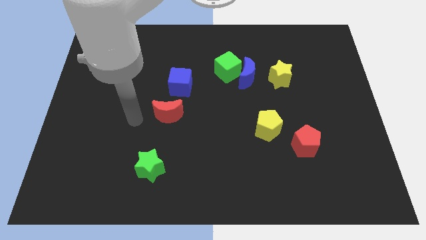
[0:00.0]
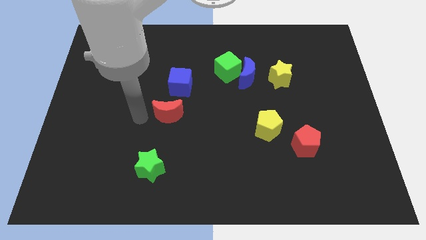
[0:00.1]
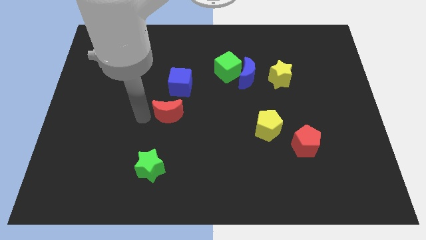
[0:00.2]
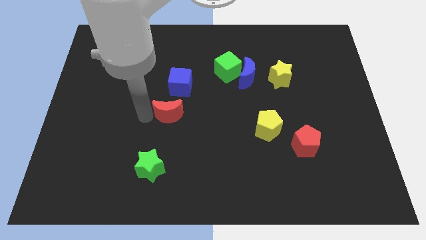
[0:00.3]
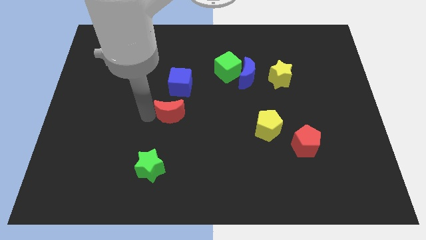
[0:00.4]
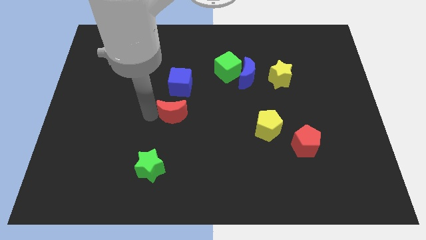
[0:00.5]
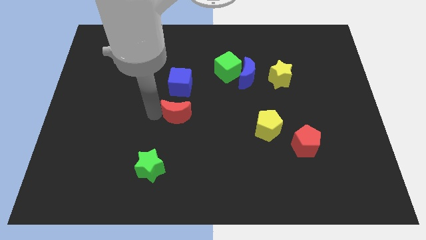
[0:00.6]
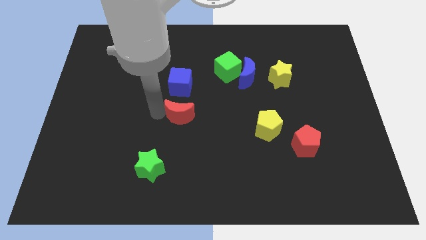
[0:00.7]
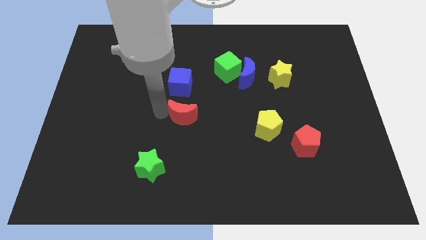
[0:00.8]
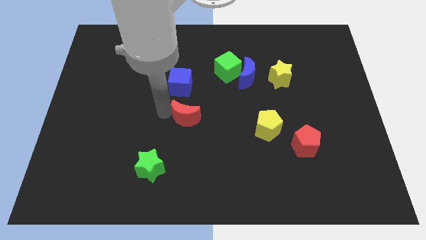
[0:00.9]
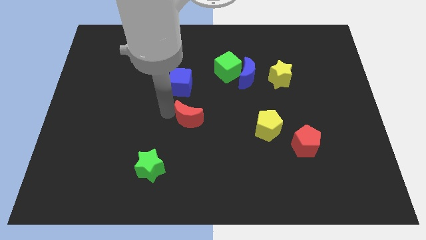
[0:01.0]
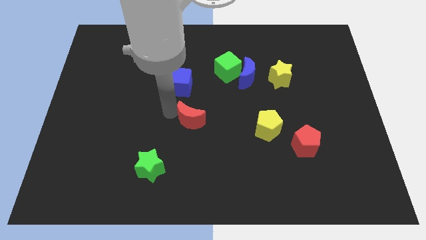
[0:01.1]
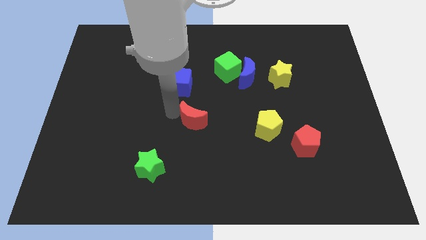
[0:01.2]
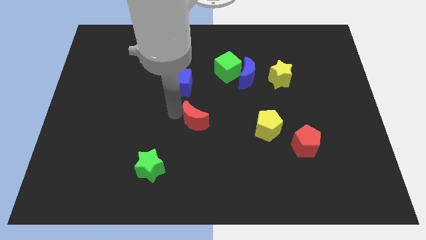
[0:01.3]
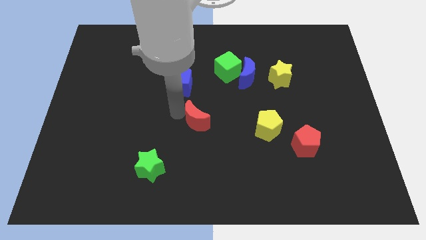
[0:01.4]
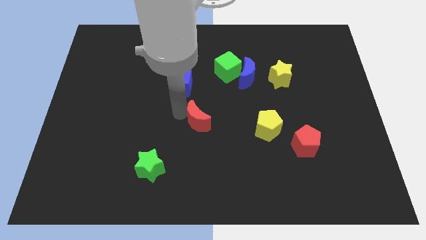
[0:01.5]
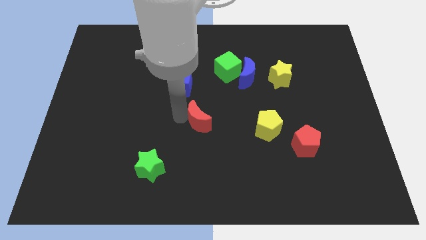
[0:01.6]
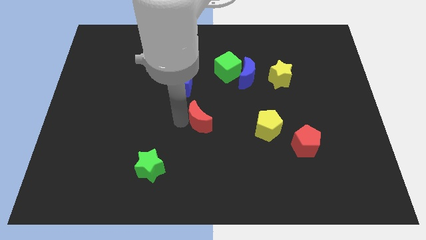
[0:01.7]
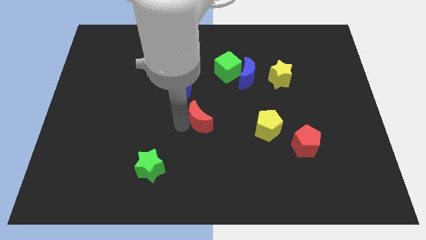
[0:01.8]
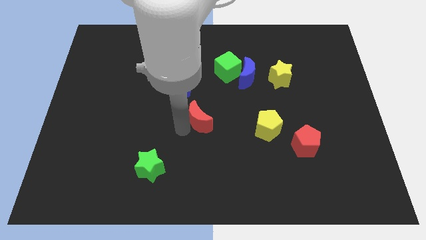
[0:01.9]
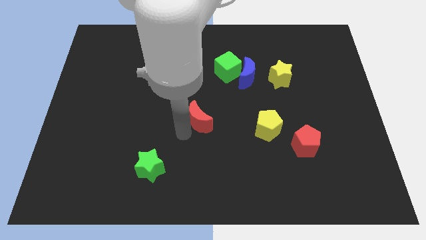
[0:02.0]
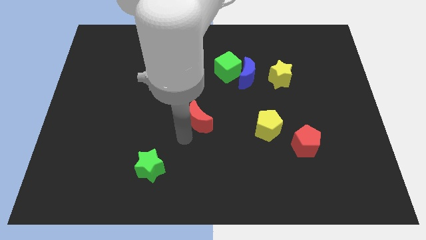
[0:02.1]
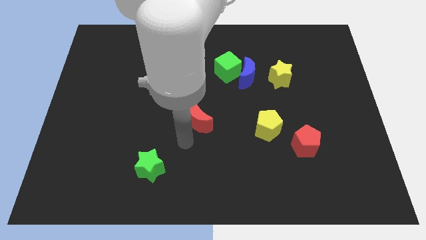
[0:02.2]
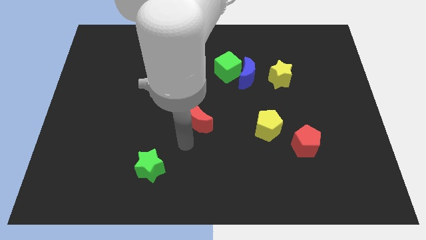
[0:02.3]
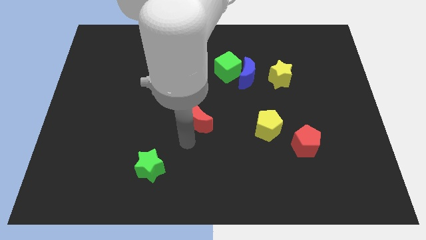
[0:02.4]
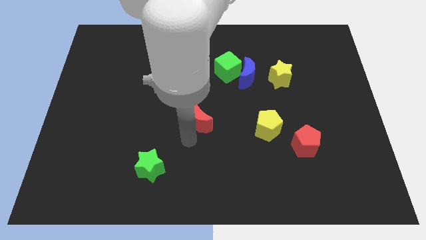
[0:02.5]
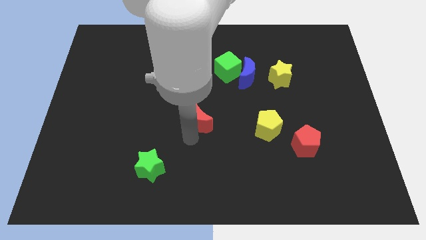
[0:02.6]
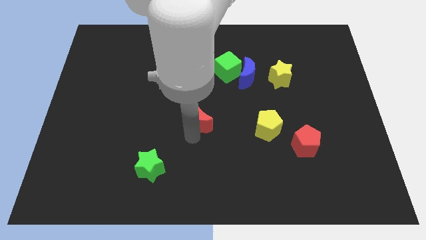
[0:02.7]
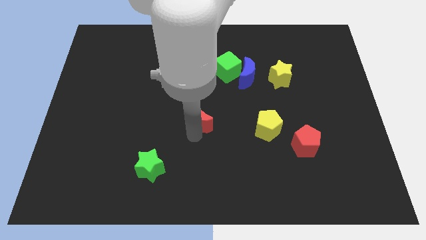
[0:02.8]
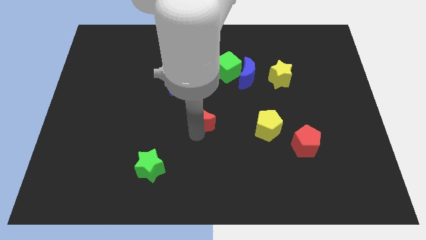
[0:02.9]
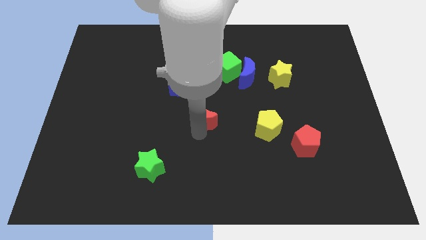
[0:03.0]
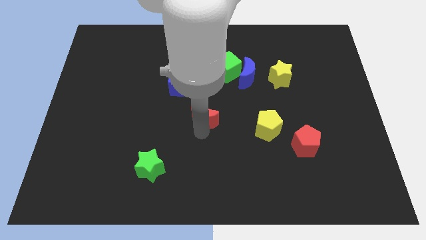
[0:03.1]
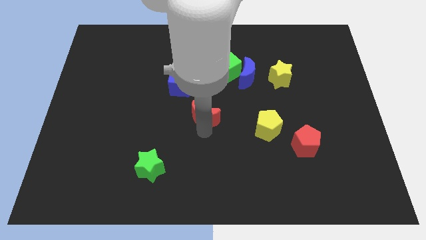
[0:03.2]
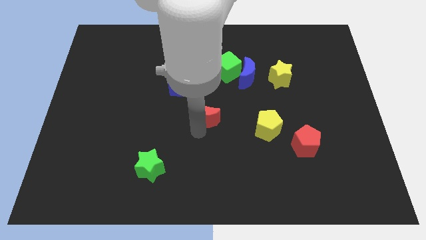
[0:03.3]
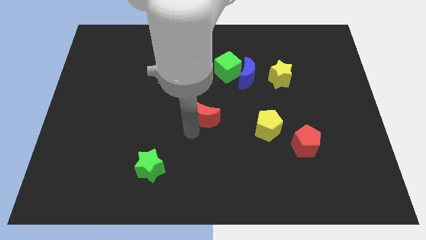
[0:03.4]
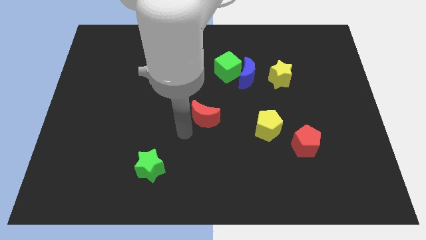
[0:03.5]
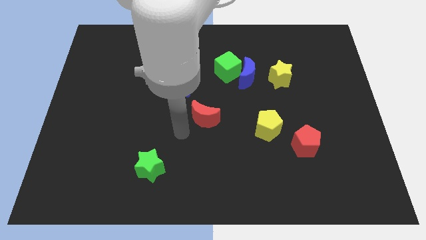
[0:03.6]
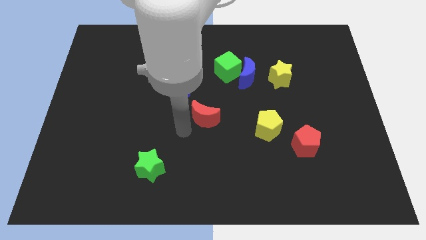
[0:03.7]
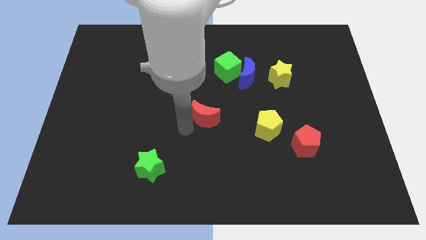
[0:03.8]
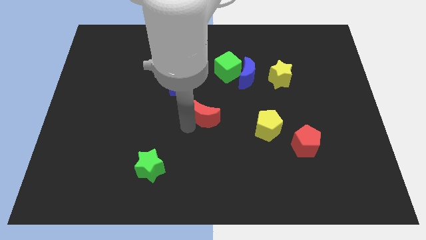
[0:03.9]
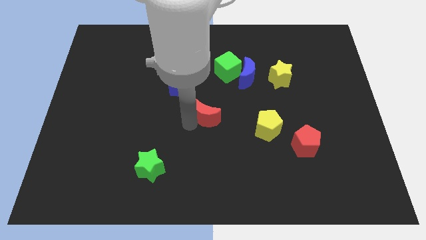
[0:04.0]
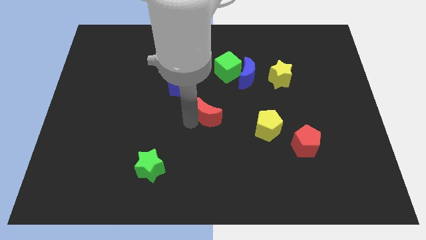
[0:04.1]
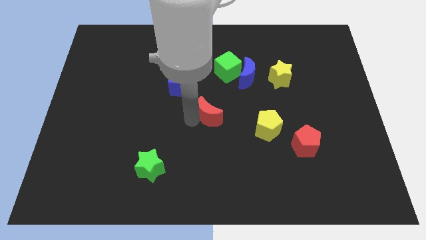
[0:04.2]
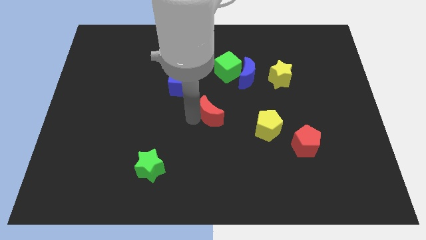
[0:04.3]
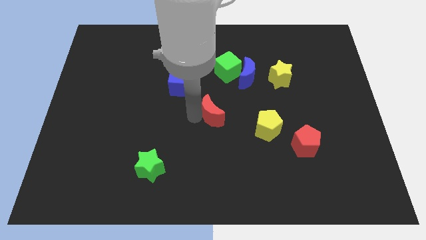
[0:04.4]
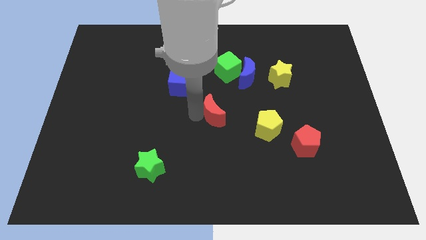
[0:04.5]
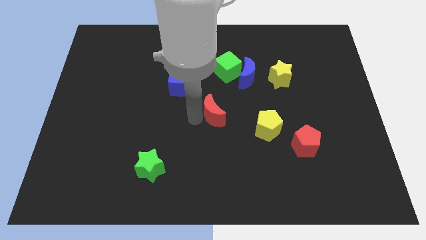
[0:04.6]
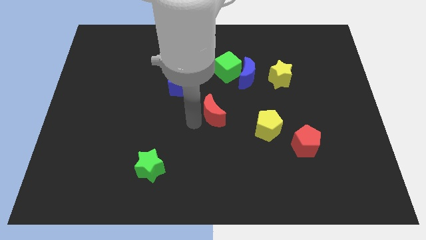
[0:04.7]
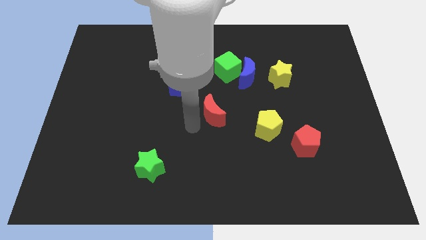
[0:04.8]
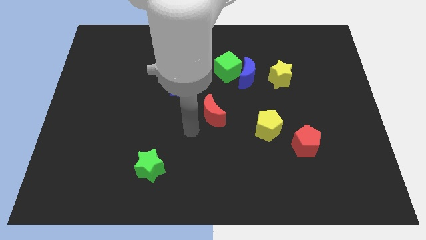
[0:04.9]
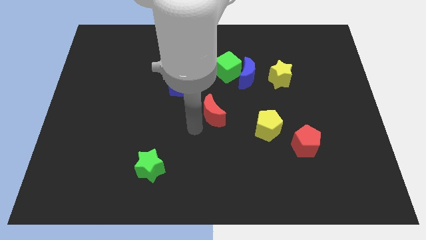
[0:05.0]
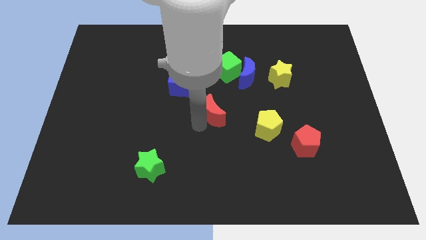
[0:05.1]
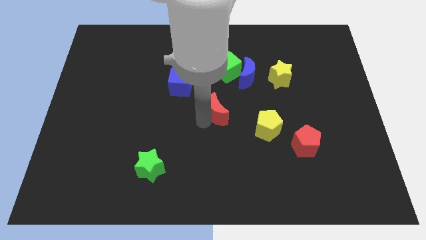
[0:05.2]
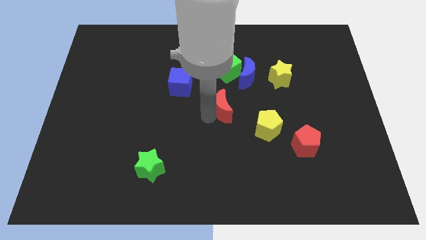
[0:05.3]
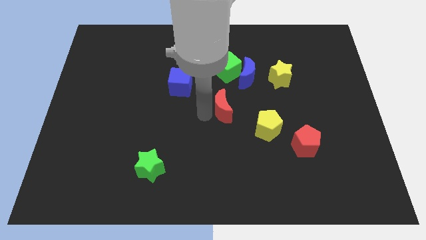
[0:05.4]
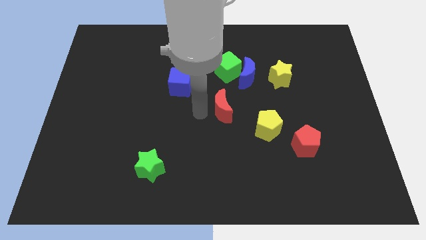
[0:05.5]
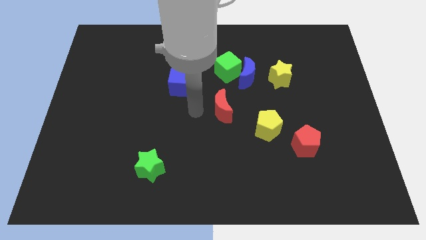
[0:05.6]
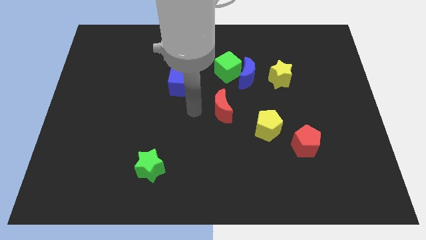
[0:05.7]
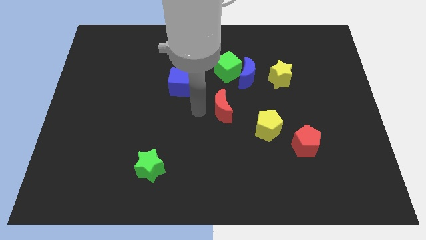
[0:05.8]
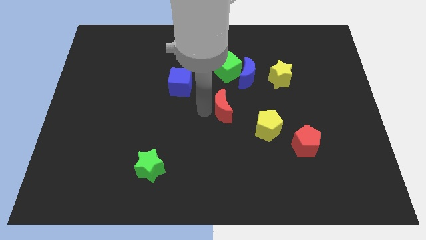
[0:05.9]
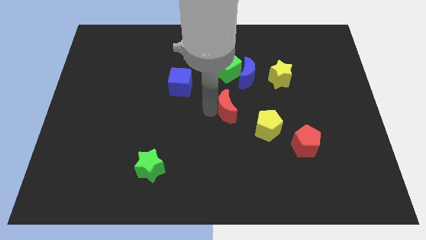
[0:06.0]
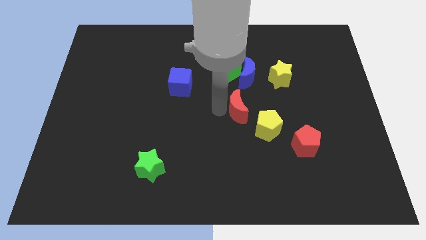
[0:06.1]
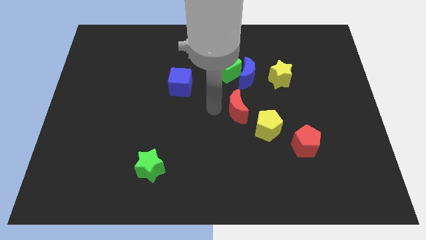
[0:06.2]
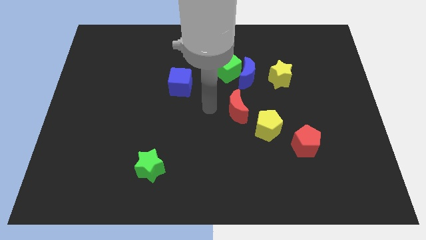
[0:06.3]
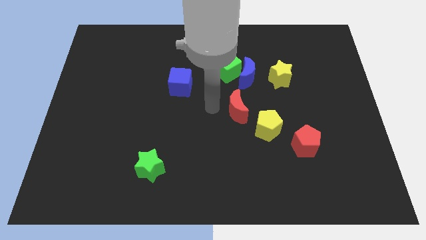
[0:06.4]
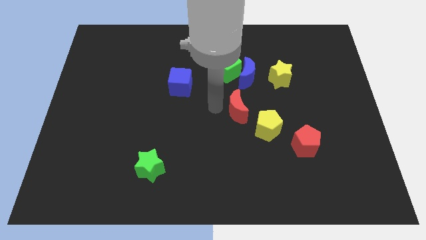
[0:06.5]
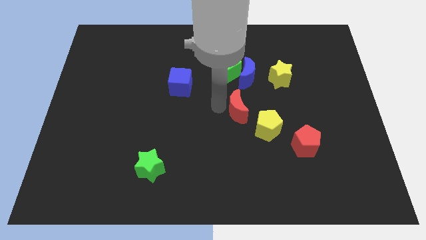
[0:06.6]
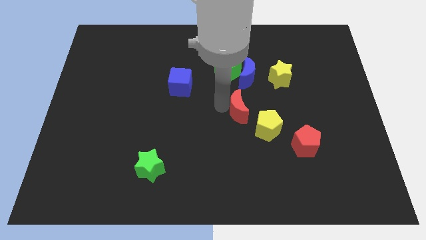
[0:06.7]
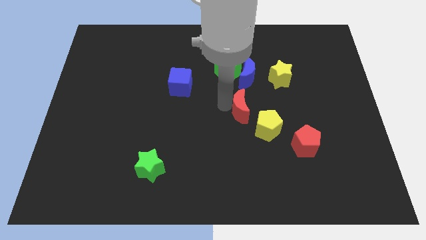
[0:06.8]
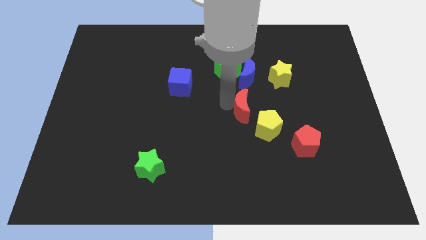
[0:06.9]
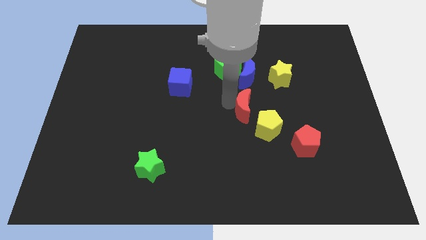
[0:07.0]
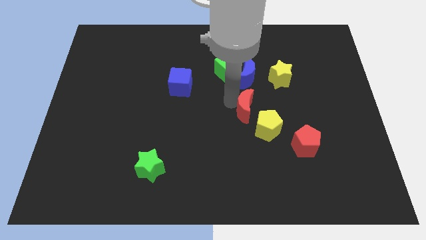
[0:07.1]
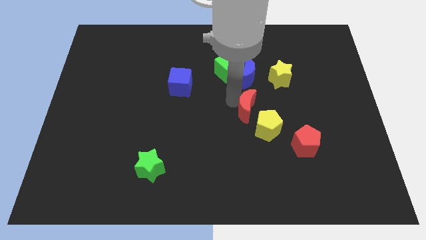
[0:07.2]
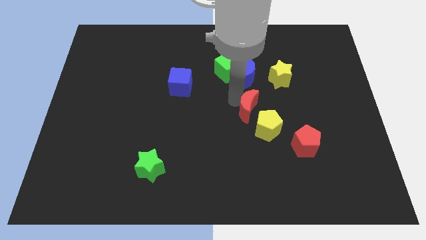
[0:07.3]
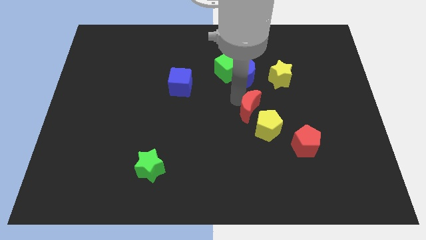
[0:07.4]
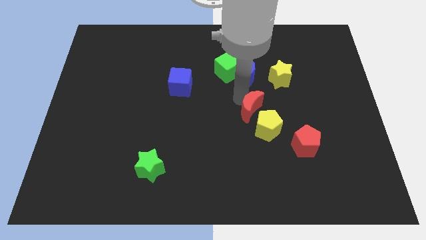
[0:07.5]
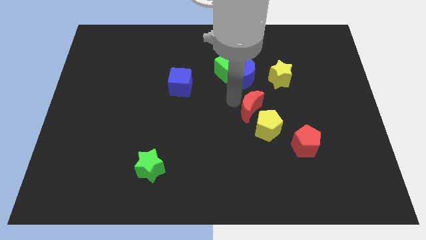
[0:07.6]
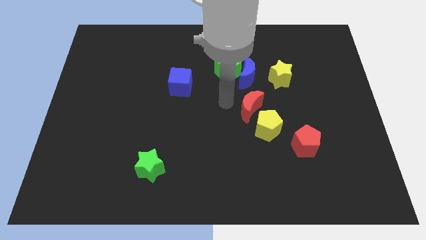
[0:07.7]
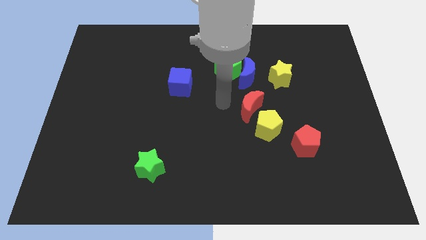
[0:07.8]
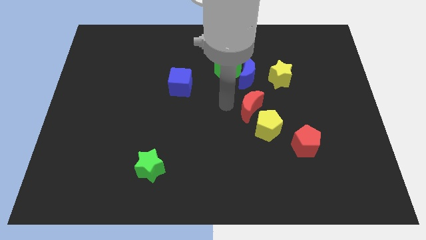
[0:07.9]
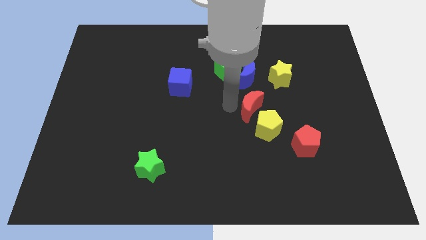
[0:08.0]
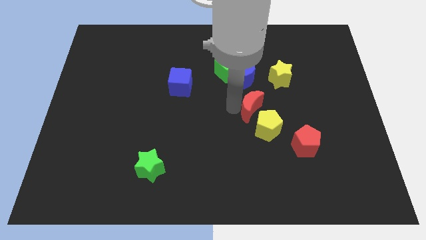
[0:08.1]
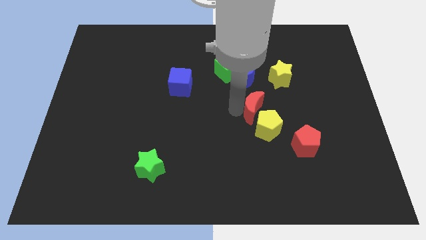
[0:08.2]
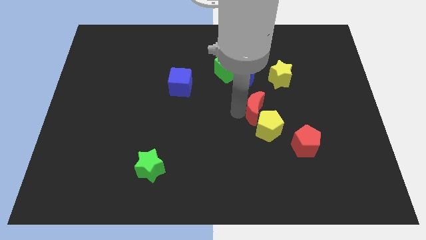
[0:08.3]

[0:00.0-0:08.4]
move the red moon to the right
